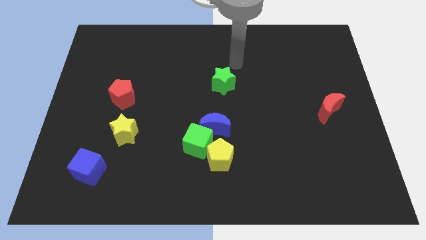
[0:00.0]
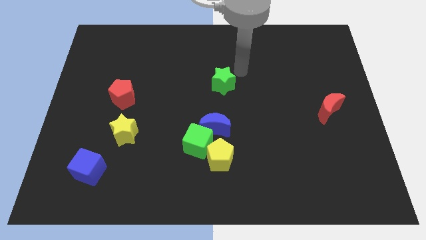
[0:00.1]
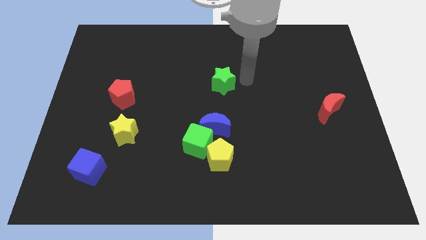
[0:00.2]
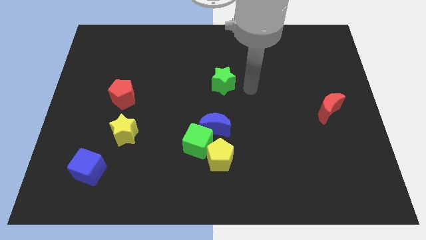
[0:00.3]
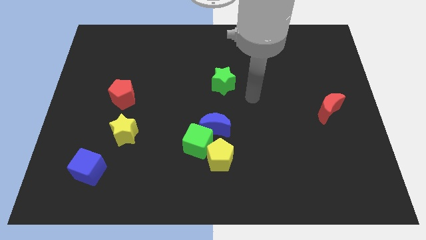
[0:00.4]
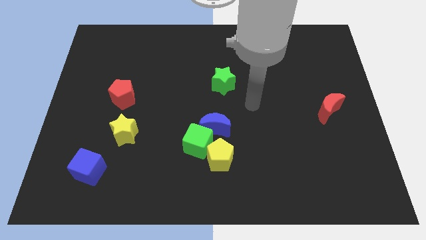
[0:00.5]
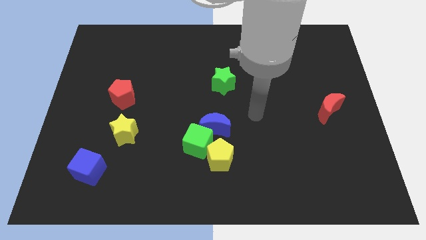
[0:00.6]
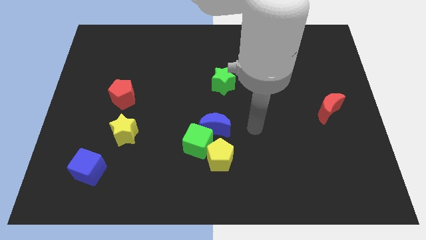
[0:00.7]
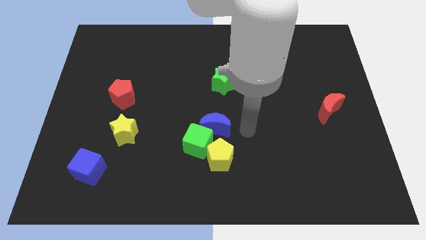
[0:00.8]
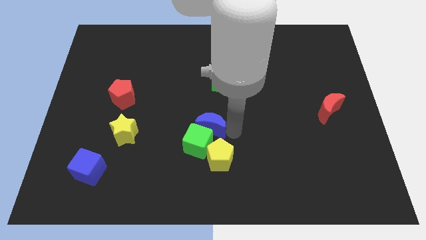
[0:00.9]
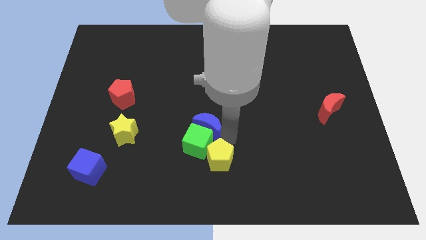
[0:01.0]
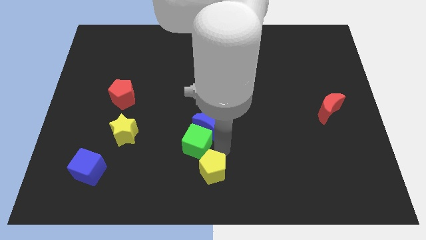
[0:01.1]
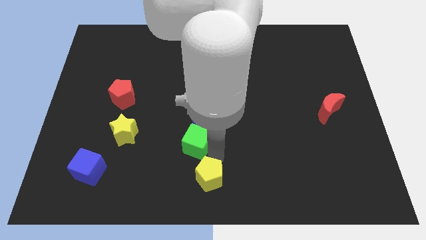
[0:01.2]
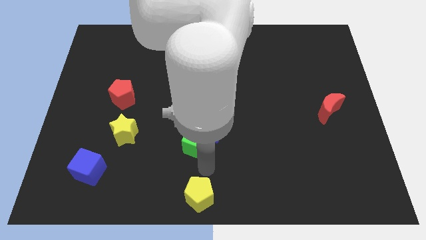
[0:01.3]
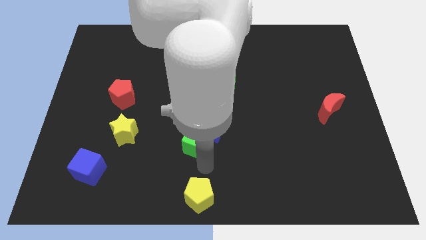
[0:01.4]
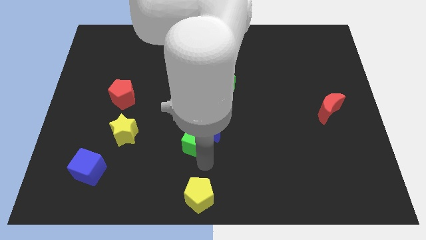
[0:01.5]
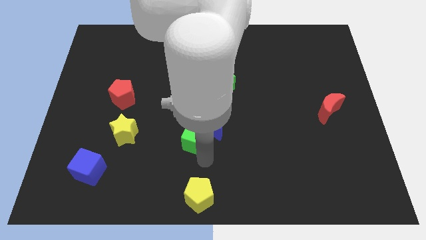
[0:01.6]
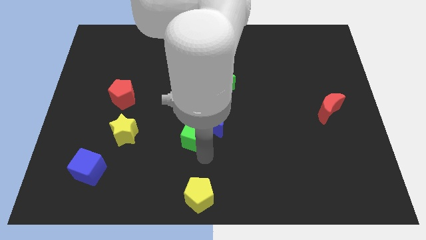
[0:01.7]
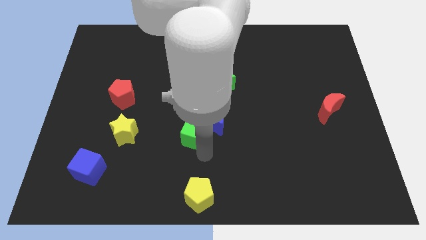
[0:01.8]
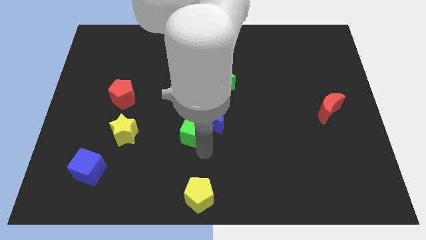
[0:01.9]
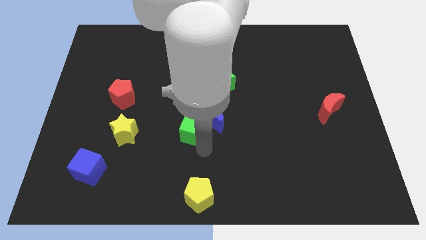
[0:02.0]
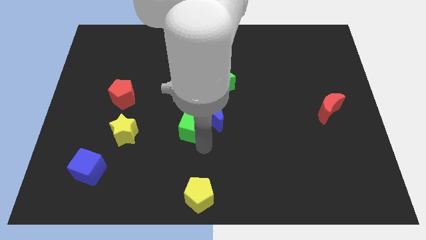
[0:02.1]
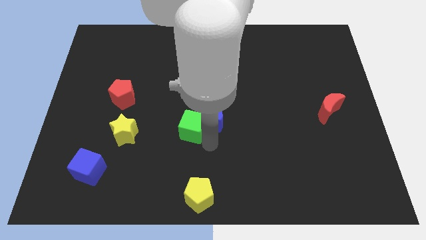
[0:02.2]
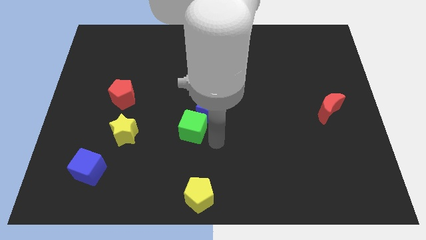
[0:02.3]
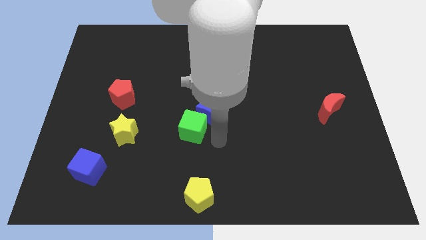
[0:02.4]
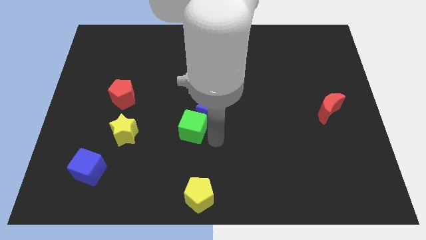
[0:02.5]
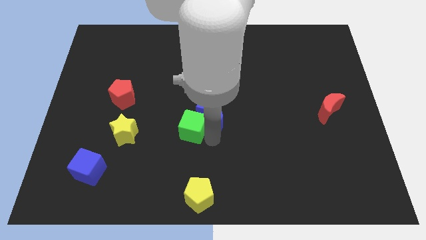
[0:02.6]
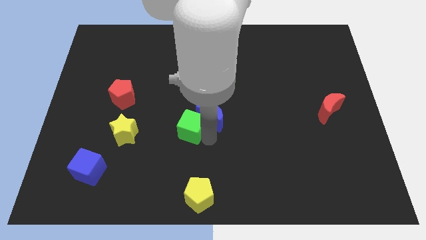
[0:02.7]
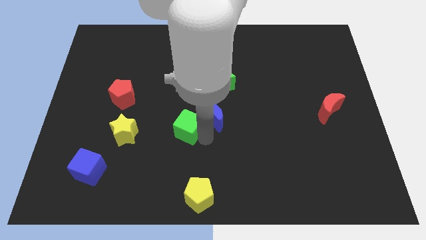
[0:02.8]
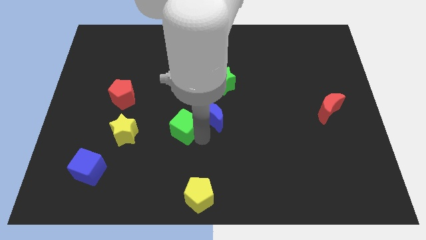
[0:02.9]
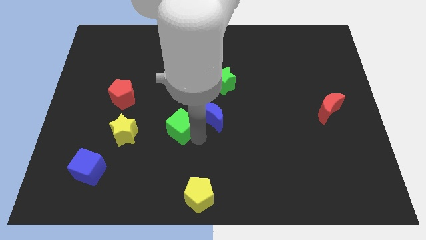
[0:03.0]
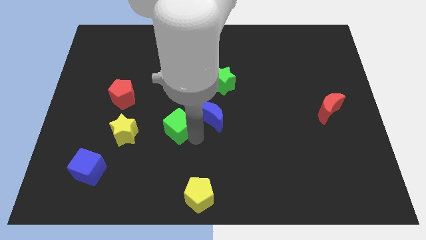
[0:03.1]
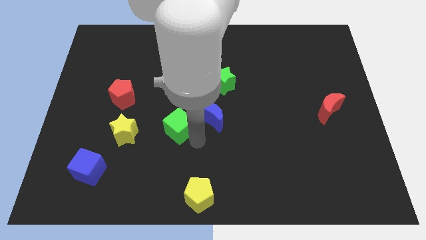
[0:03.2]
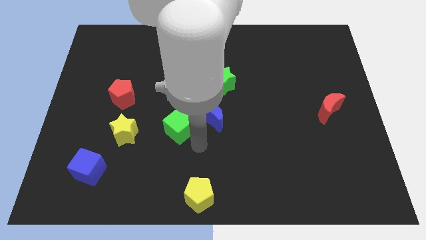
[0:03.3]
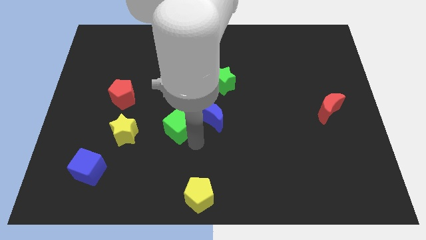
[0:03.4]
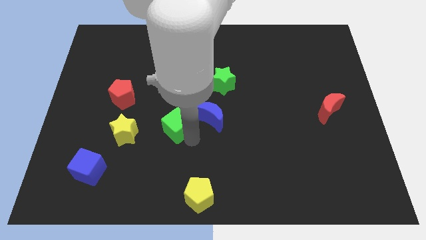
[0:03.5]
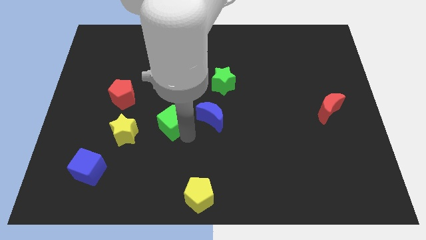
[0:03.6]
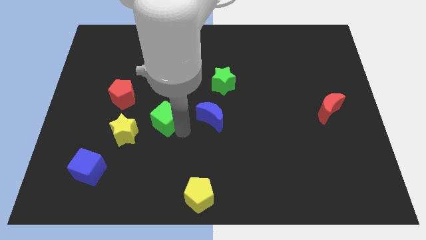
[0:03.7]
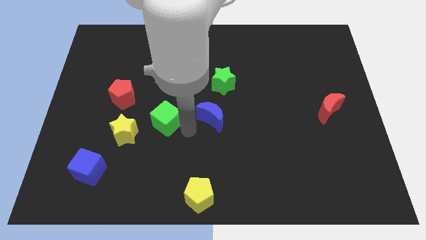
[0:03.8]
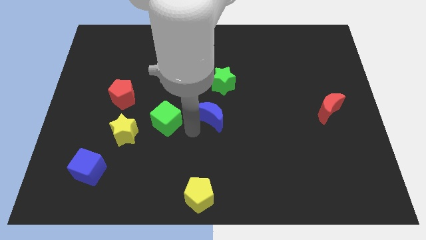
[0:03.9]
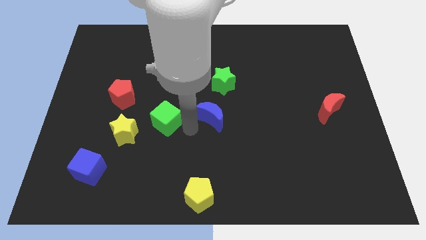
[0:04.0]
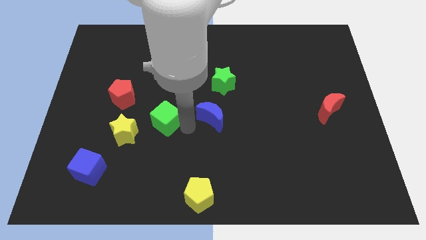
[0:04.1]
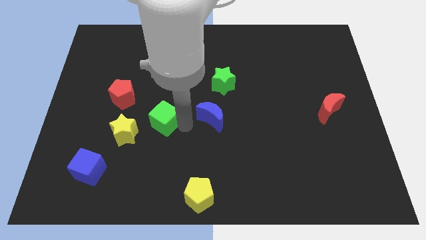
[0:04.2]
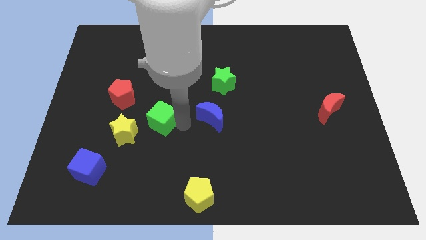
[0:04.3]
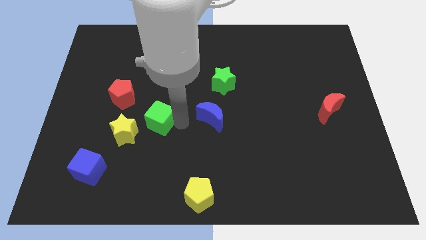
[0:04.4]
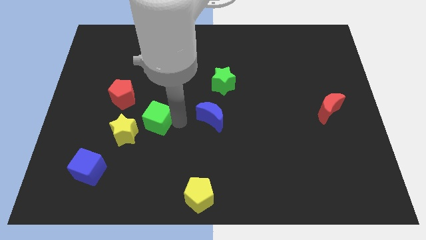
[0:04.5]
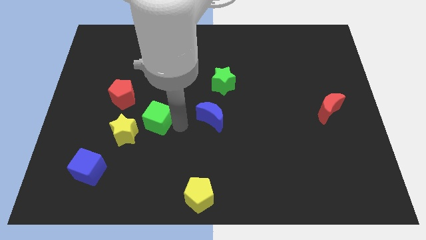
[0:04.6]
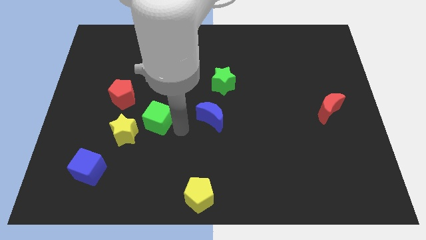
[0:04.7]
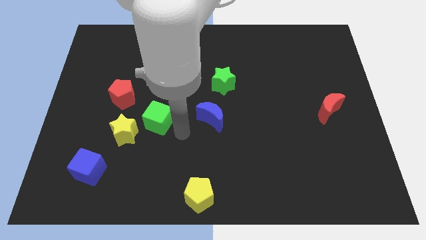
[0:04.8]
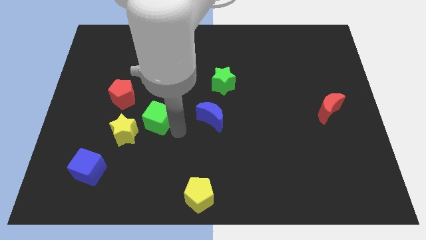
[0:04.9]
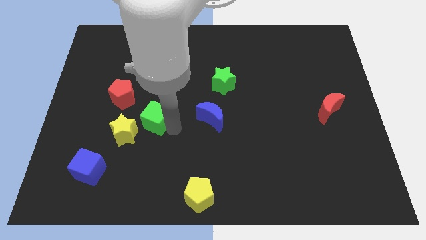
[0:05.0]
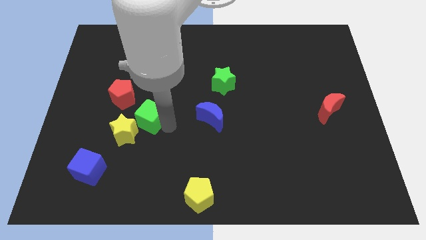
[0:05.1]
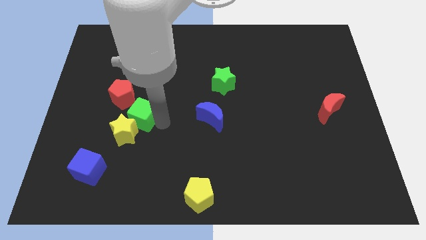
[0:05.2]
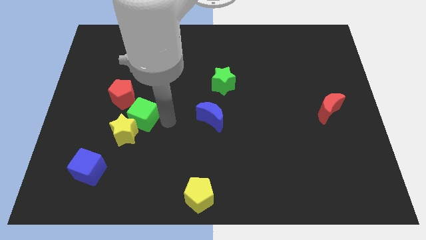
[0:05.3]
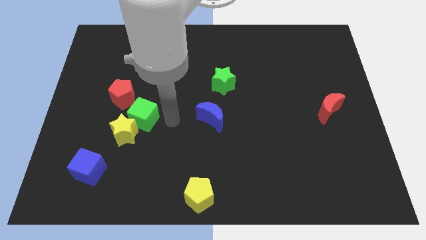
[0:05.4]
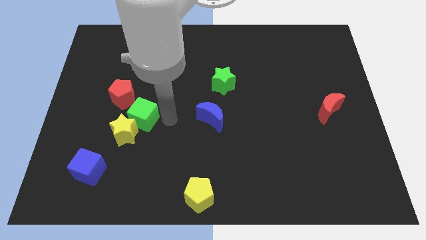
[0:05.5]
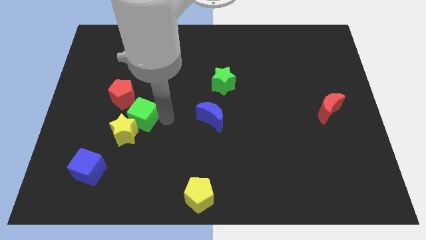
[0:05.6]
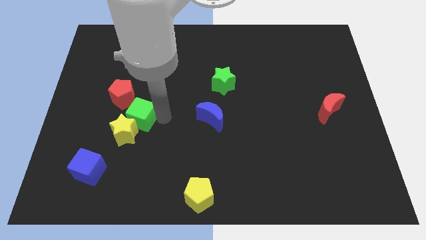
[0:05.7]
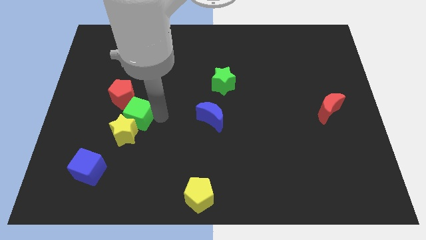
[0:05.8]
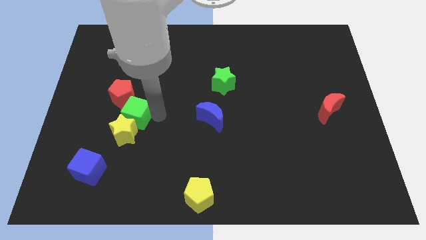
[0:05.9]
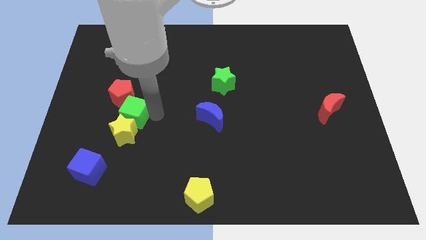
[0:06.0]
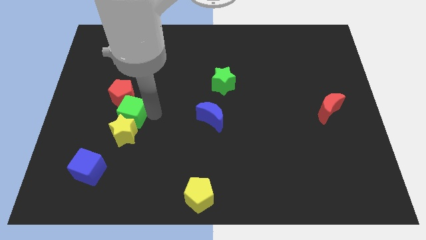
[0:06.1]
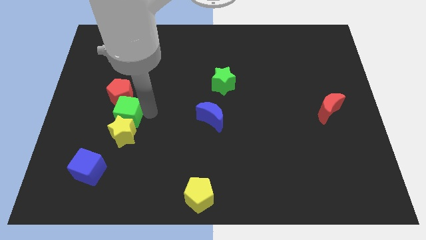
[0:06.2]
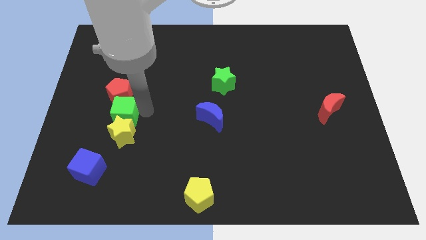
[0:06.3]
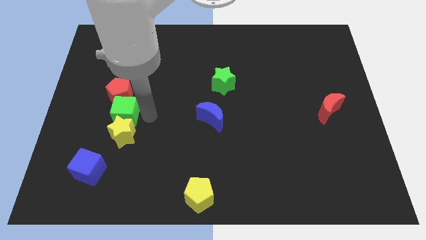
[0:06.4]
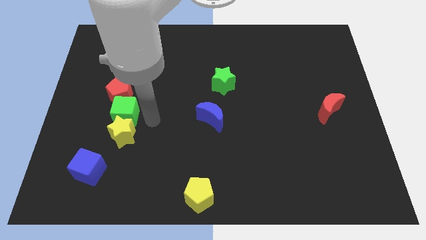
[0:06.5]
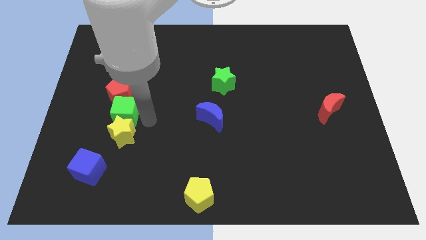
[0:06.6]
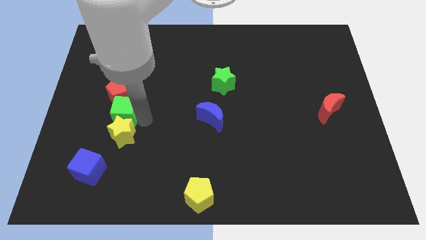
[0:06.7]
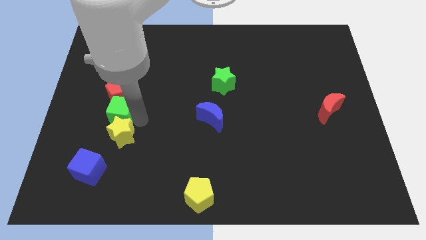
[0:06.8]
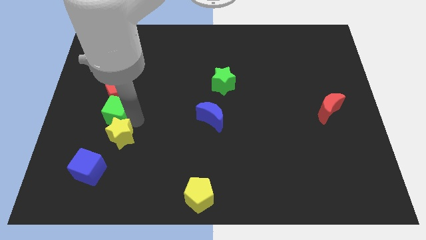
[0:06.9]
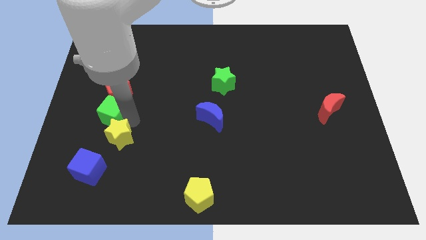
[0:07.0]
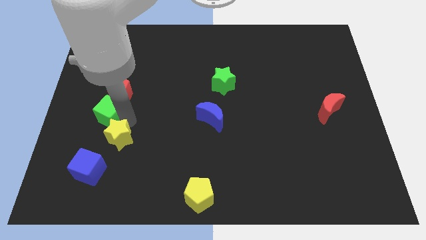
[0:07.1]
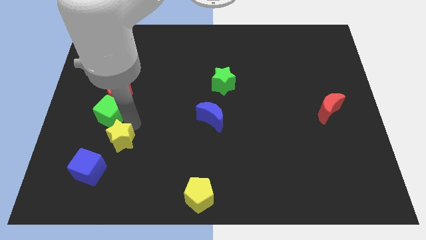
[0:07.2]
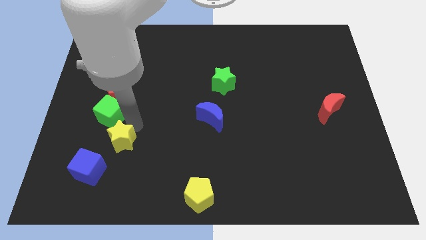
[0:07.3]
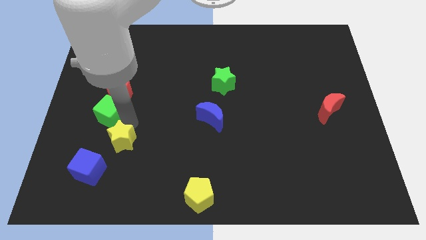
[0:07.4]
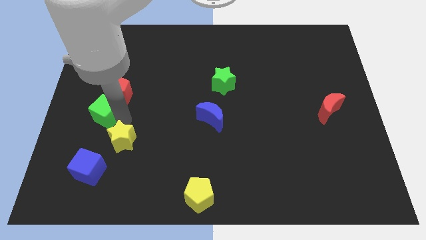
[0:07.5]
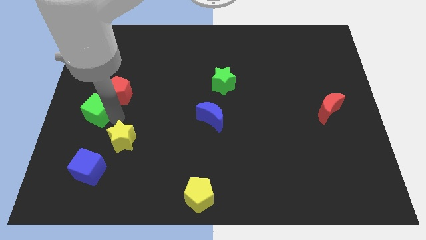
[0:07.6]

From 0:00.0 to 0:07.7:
move the green cube to the center left
